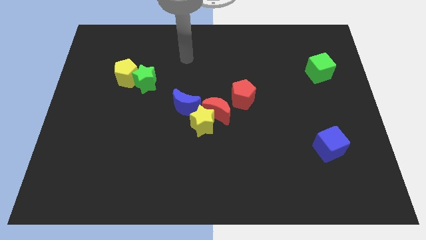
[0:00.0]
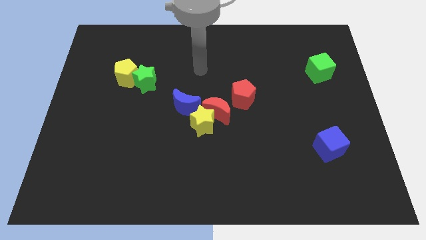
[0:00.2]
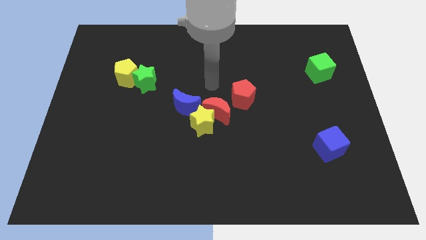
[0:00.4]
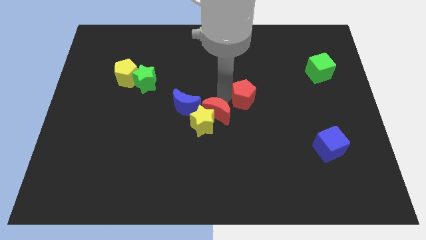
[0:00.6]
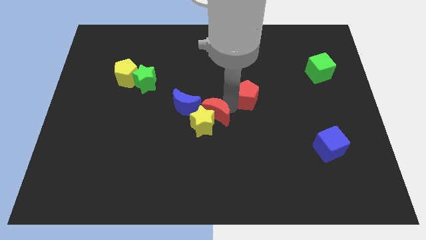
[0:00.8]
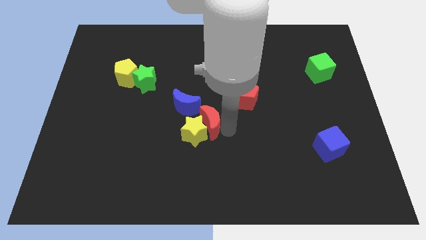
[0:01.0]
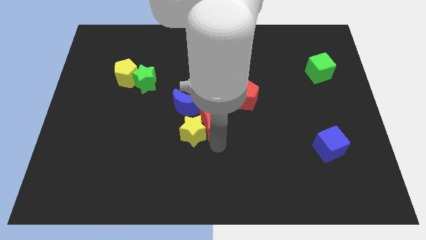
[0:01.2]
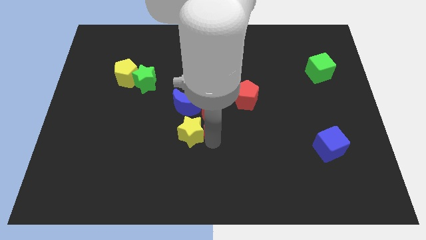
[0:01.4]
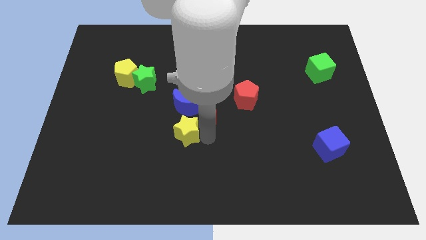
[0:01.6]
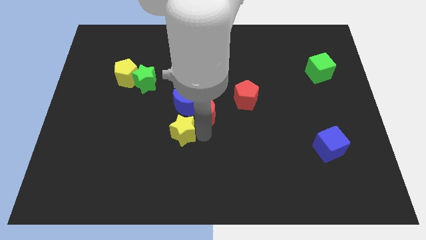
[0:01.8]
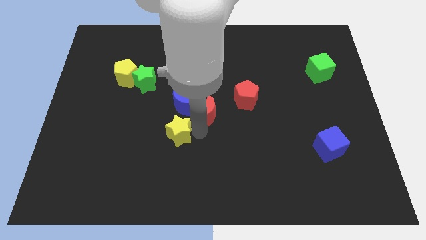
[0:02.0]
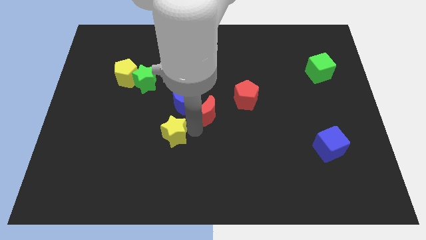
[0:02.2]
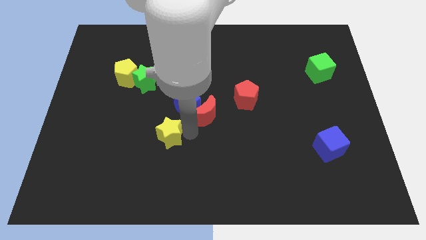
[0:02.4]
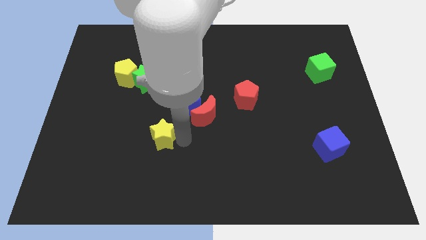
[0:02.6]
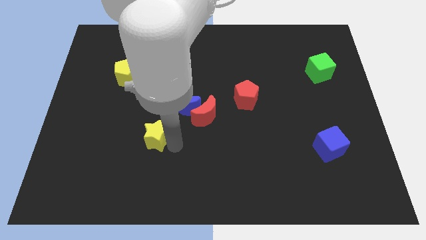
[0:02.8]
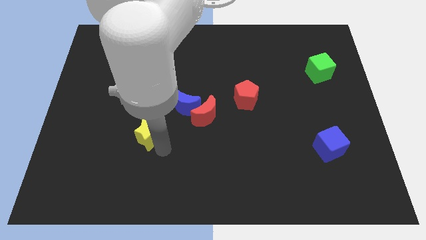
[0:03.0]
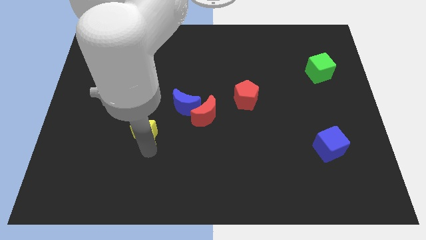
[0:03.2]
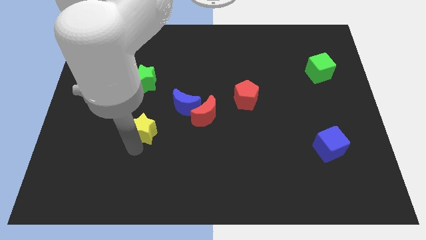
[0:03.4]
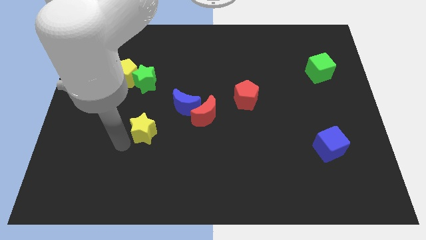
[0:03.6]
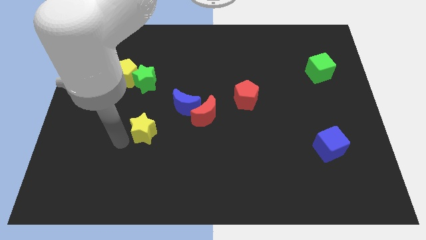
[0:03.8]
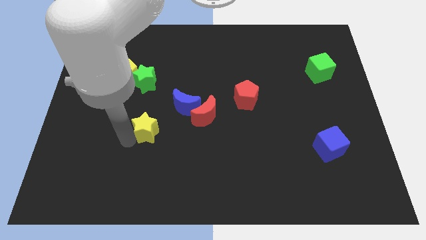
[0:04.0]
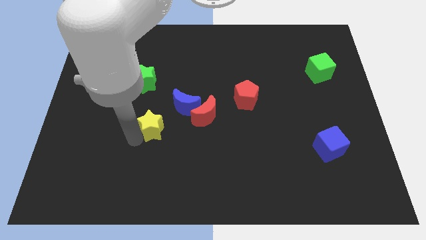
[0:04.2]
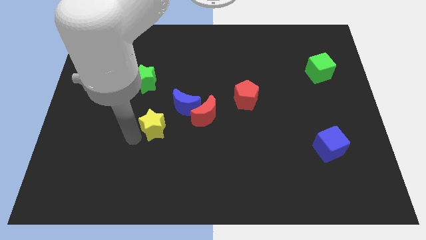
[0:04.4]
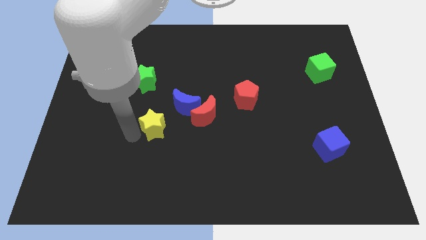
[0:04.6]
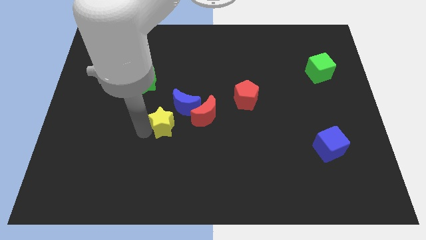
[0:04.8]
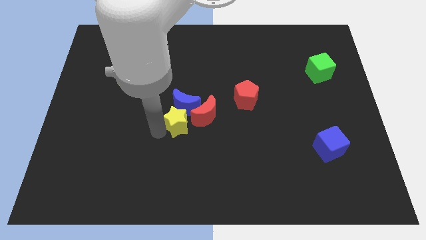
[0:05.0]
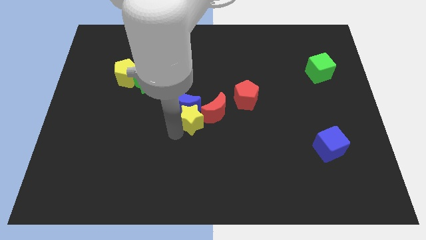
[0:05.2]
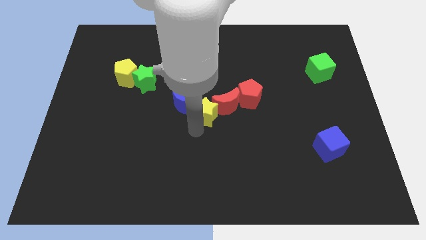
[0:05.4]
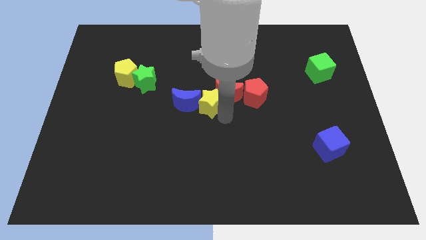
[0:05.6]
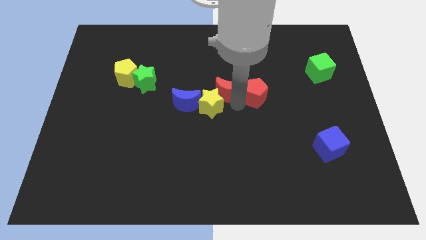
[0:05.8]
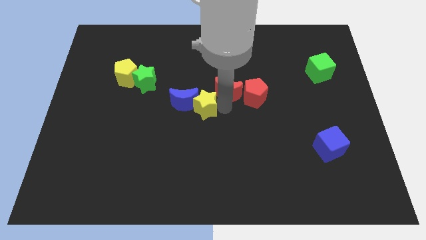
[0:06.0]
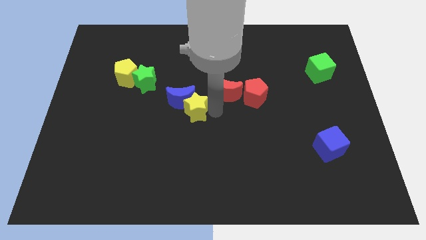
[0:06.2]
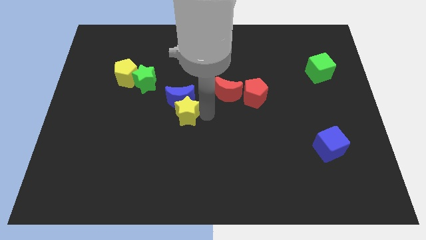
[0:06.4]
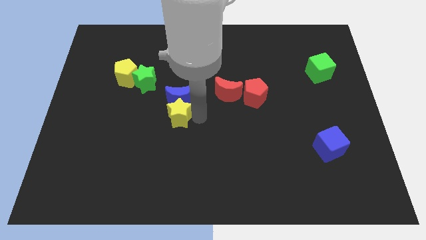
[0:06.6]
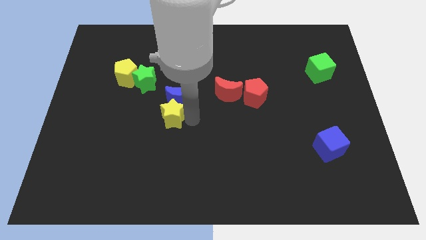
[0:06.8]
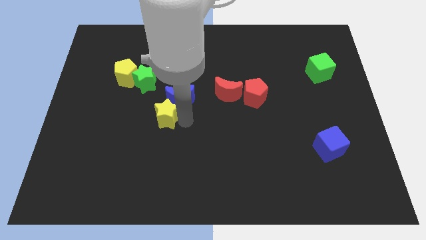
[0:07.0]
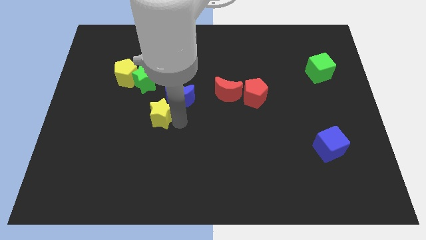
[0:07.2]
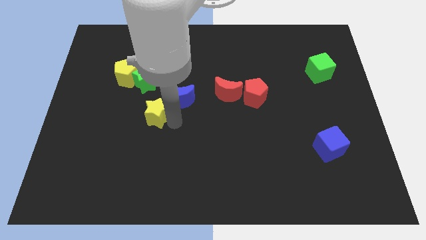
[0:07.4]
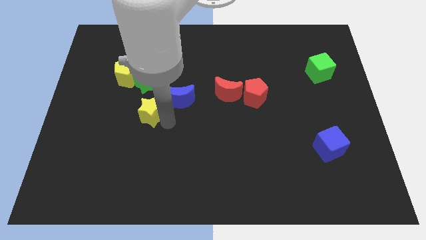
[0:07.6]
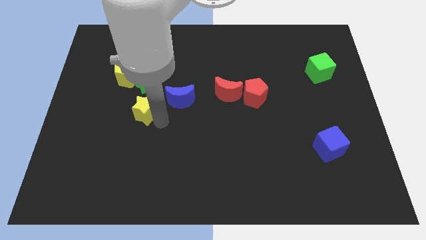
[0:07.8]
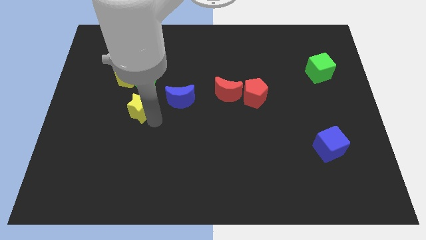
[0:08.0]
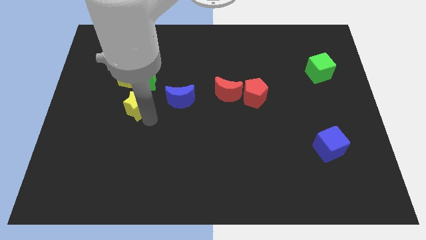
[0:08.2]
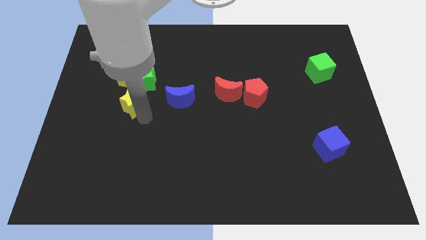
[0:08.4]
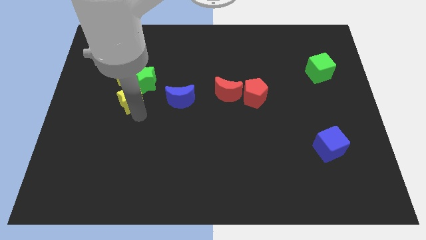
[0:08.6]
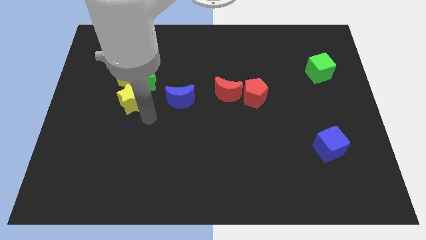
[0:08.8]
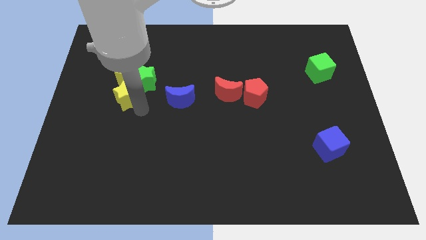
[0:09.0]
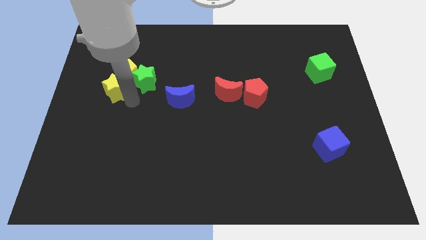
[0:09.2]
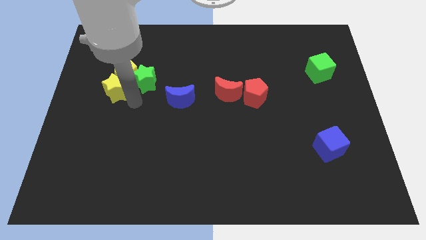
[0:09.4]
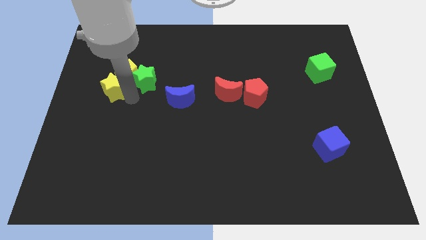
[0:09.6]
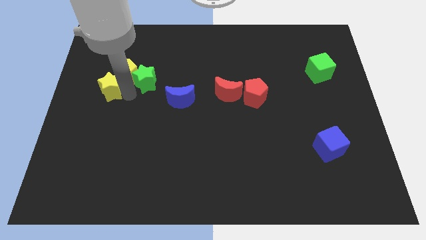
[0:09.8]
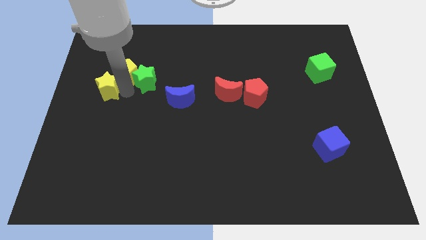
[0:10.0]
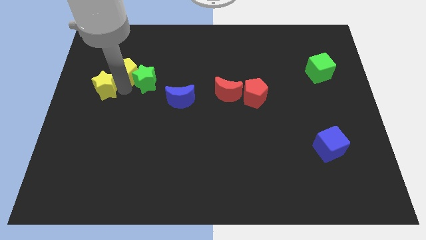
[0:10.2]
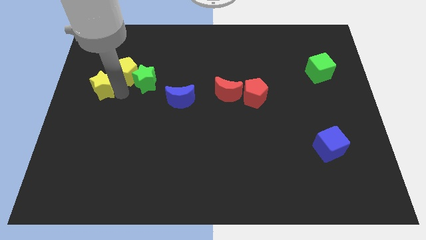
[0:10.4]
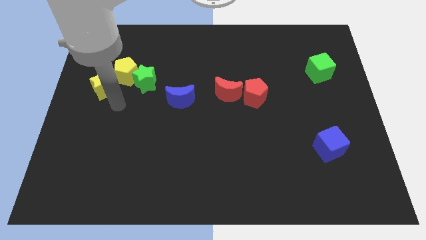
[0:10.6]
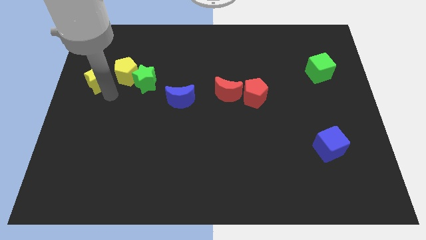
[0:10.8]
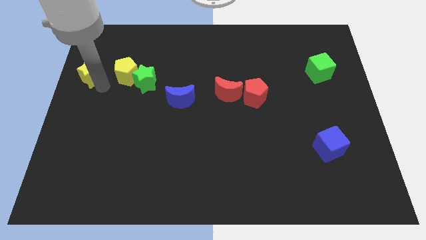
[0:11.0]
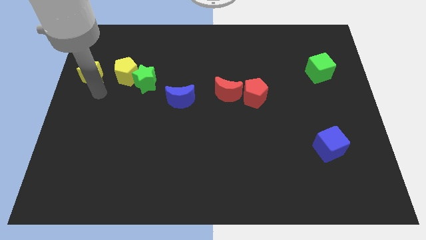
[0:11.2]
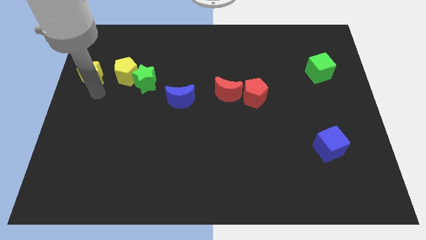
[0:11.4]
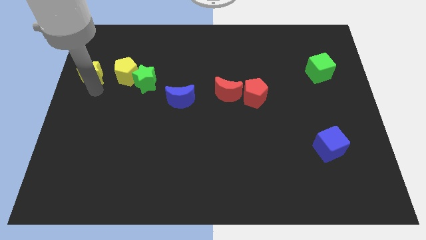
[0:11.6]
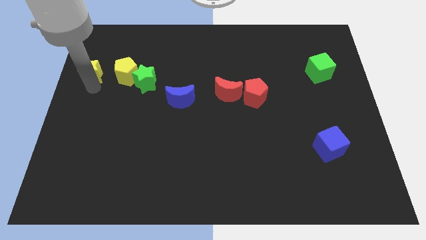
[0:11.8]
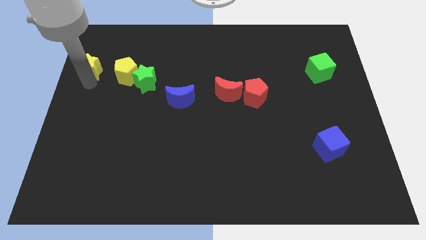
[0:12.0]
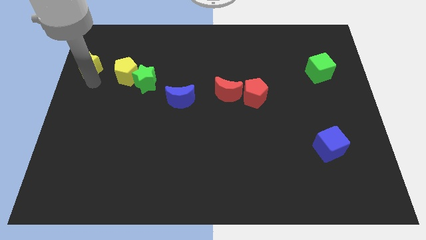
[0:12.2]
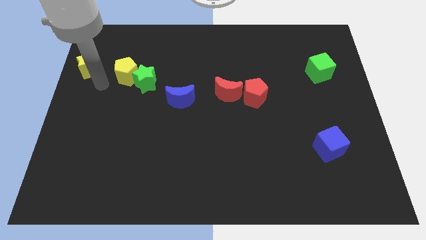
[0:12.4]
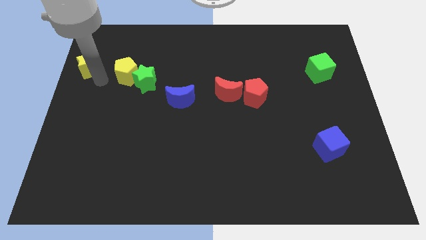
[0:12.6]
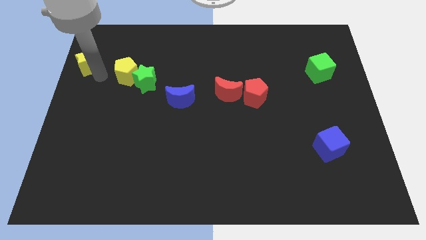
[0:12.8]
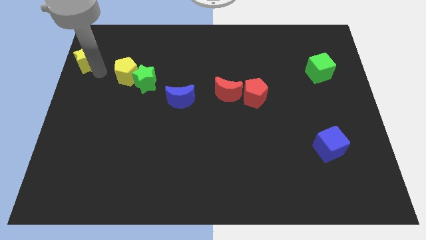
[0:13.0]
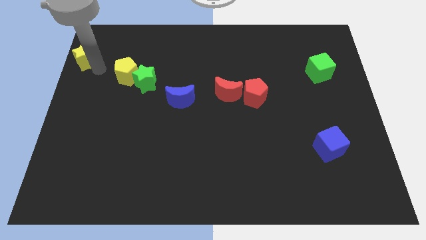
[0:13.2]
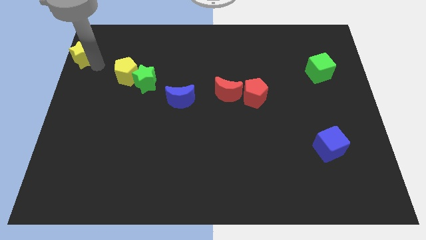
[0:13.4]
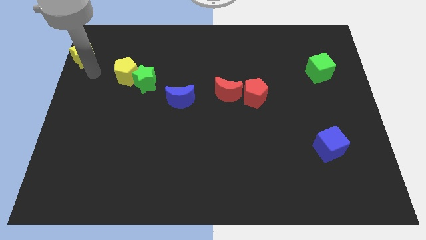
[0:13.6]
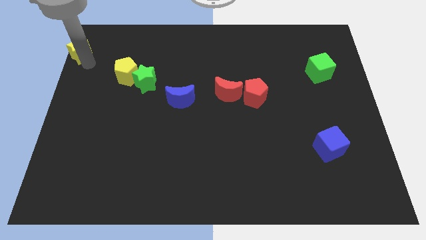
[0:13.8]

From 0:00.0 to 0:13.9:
put the yellow star to the top left of the board
